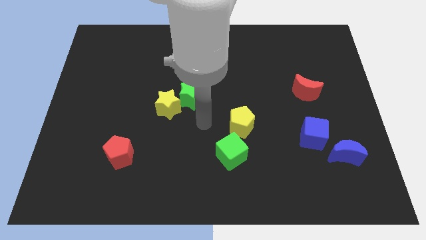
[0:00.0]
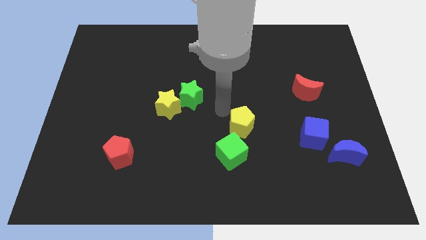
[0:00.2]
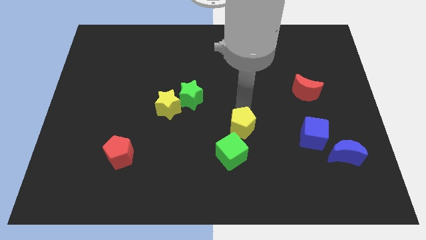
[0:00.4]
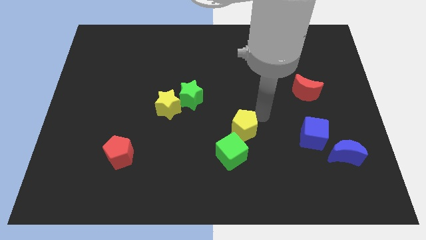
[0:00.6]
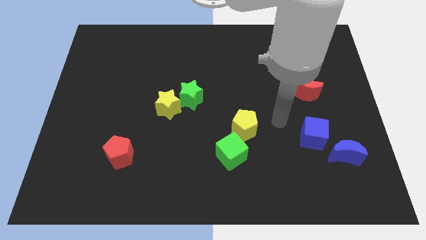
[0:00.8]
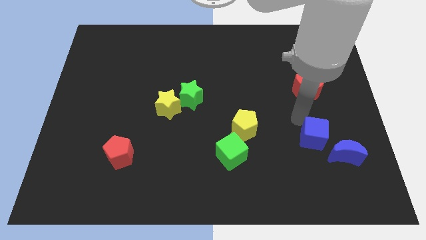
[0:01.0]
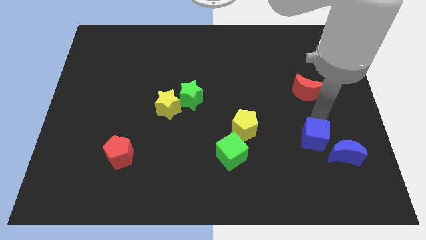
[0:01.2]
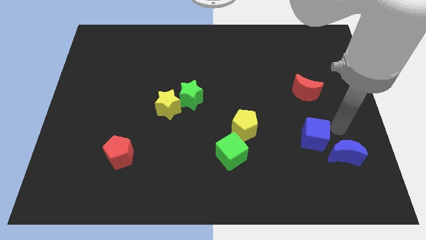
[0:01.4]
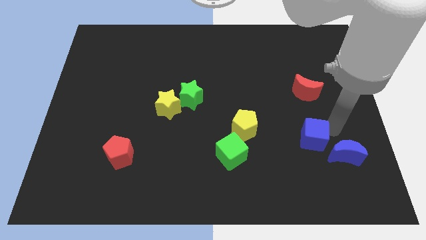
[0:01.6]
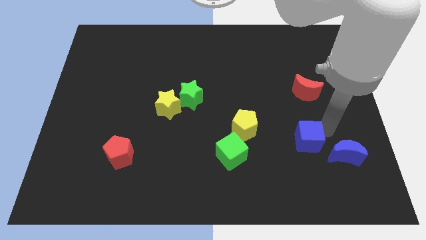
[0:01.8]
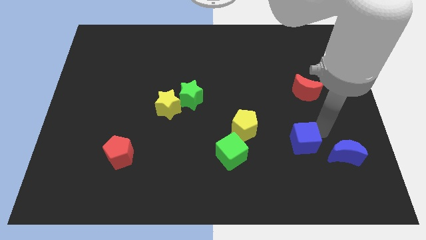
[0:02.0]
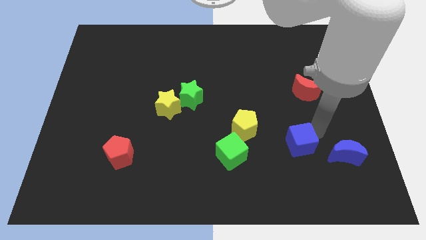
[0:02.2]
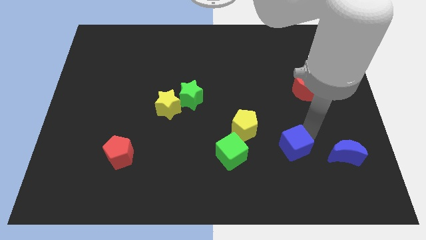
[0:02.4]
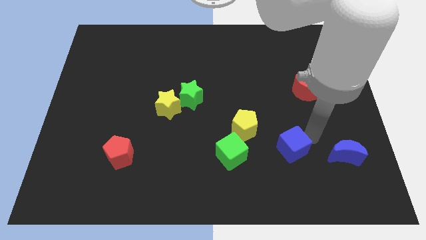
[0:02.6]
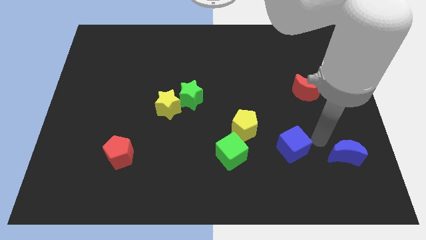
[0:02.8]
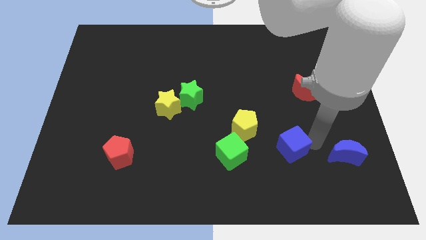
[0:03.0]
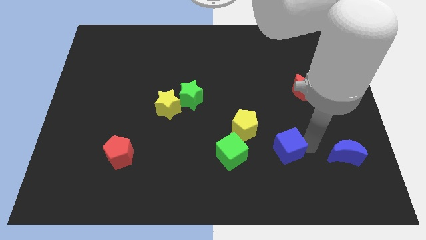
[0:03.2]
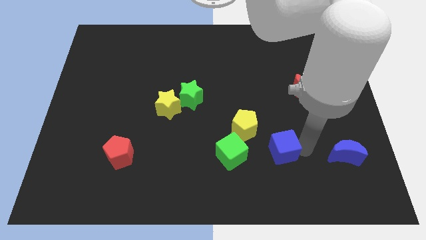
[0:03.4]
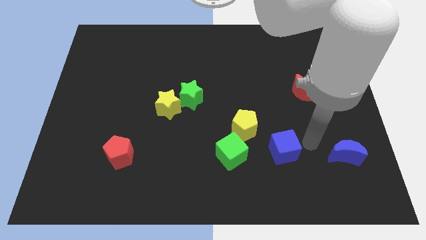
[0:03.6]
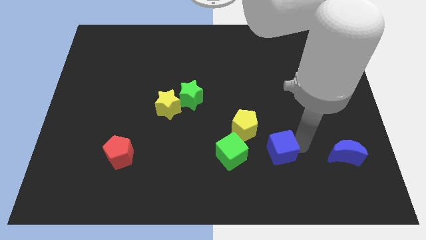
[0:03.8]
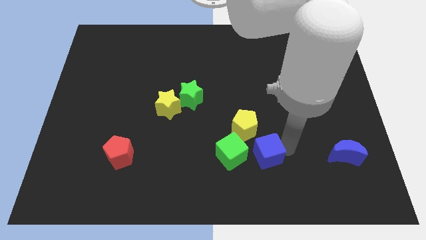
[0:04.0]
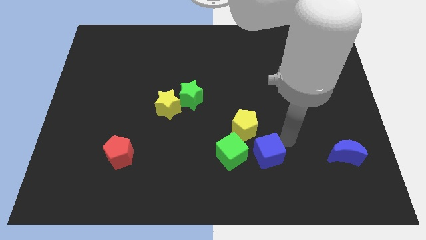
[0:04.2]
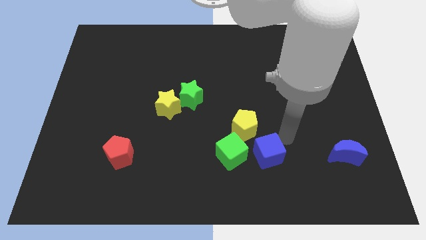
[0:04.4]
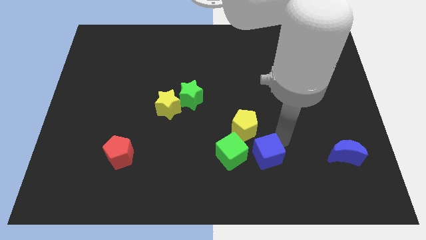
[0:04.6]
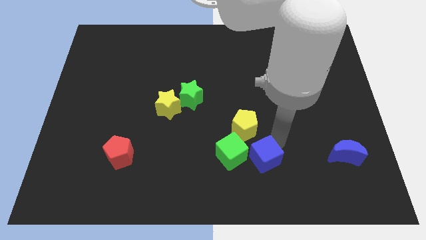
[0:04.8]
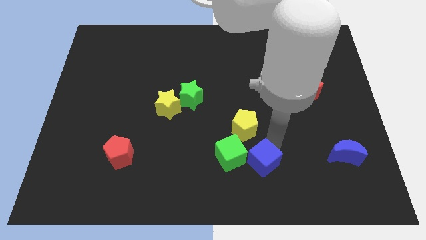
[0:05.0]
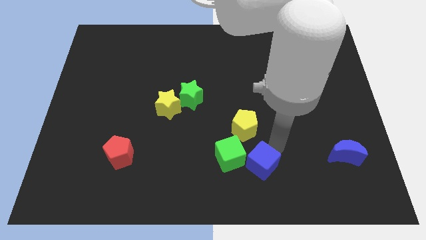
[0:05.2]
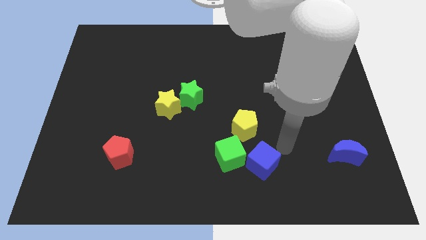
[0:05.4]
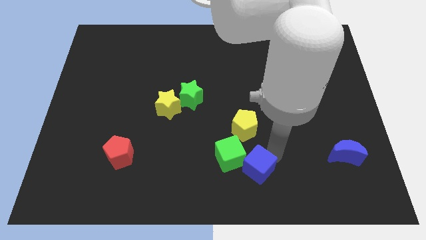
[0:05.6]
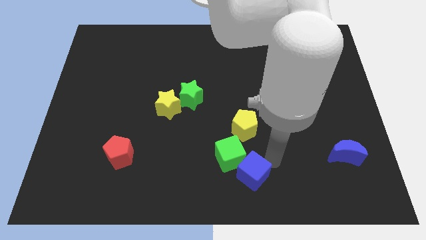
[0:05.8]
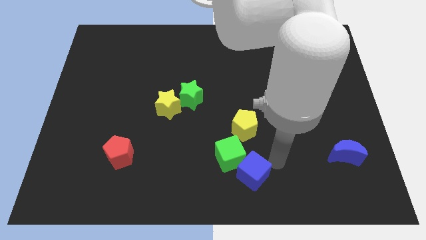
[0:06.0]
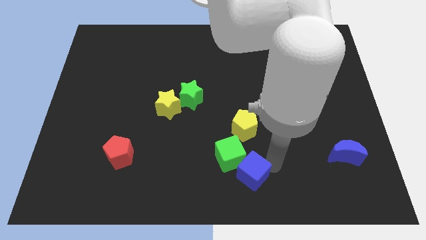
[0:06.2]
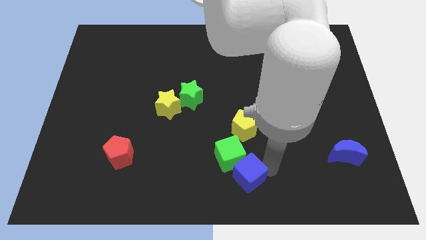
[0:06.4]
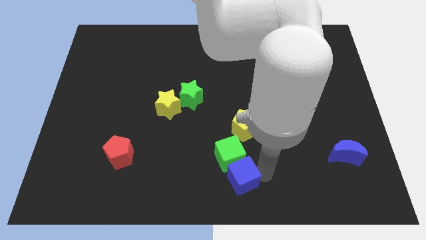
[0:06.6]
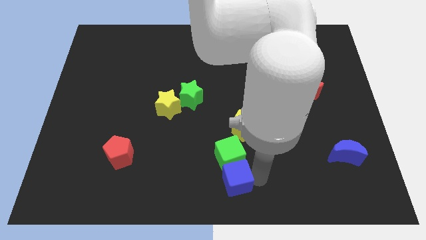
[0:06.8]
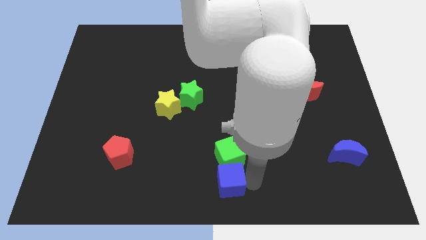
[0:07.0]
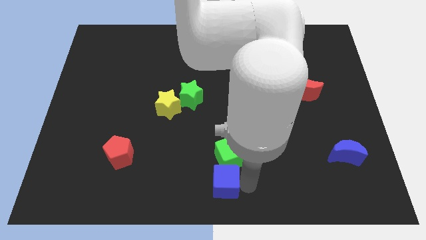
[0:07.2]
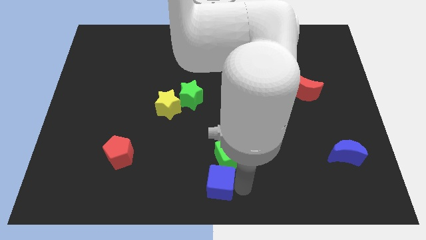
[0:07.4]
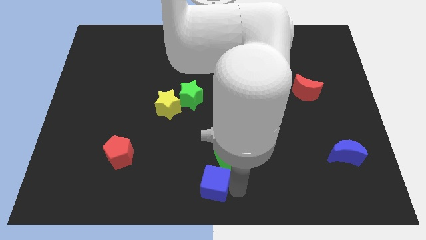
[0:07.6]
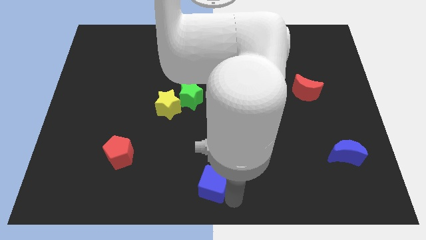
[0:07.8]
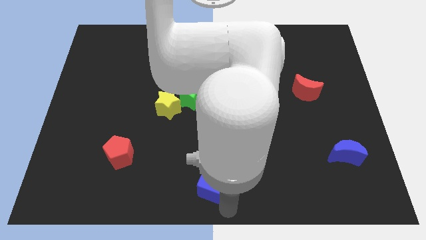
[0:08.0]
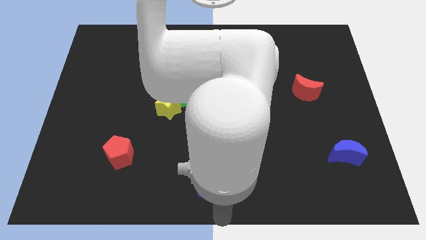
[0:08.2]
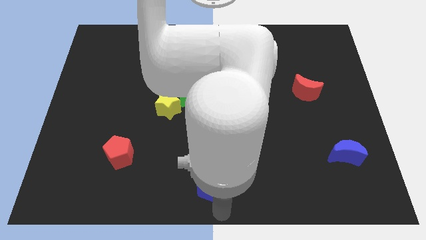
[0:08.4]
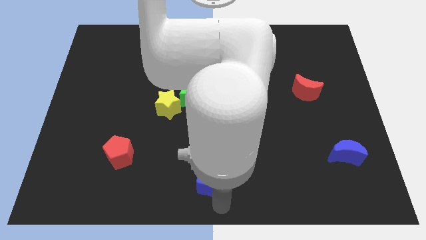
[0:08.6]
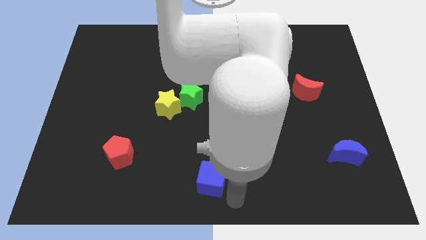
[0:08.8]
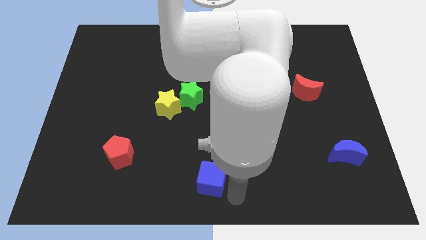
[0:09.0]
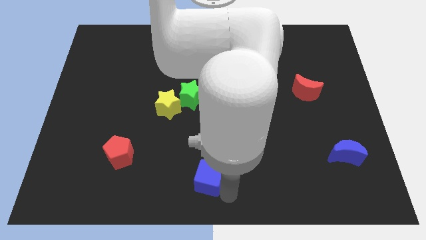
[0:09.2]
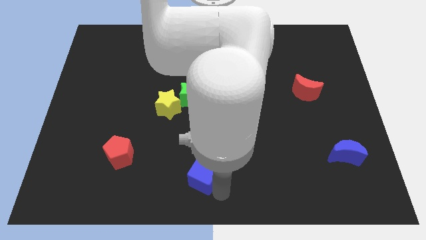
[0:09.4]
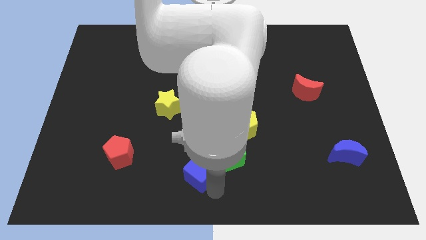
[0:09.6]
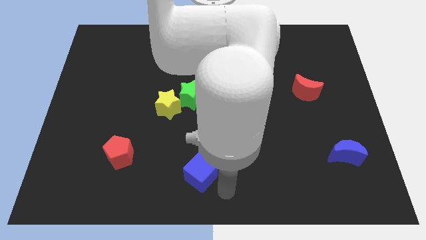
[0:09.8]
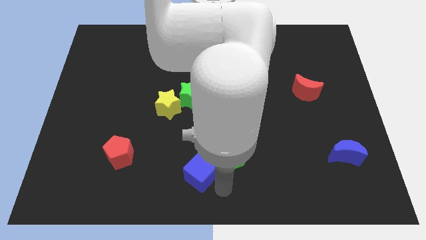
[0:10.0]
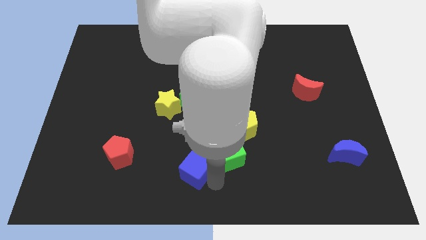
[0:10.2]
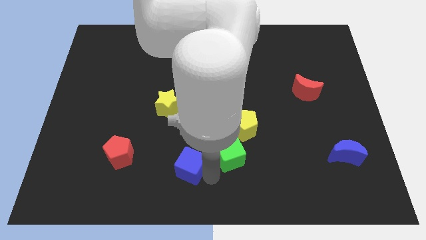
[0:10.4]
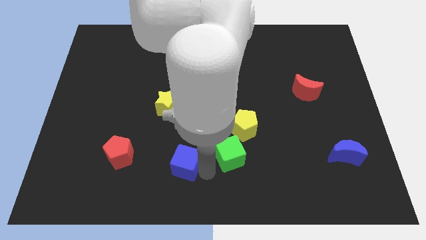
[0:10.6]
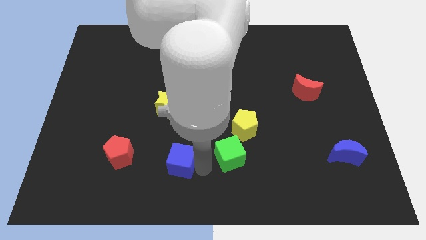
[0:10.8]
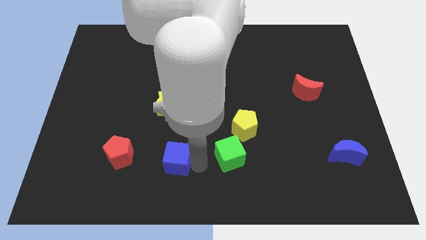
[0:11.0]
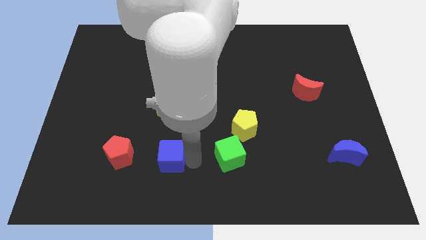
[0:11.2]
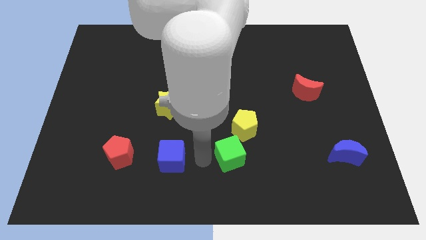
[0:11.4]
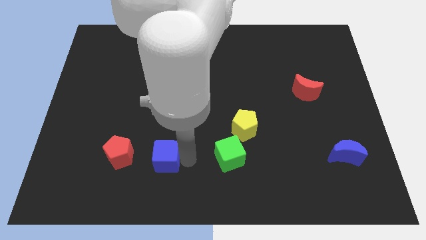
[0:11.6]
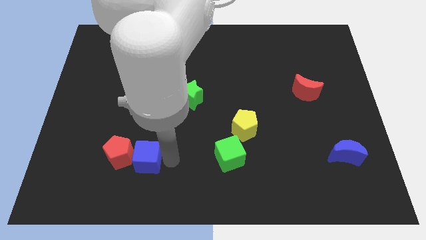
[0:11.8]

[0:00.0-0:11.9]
move the blue cube close to the red pentagon

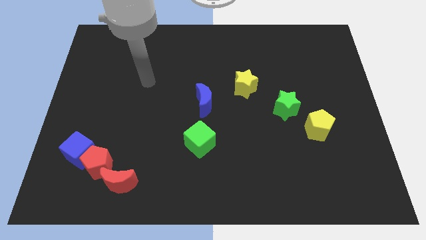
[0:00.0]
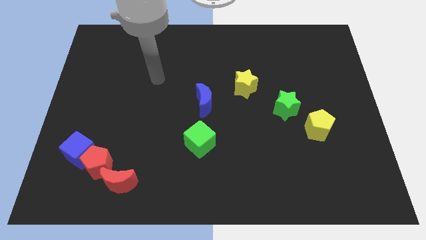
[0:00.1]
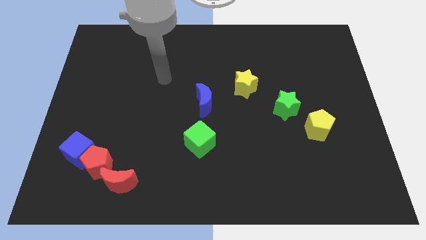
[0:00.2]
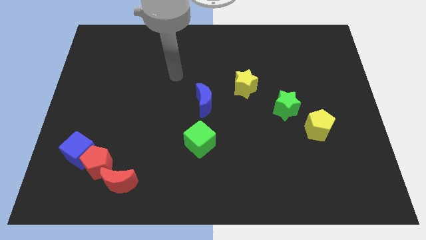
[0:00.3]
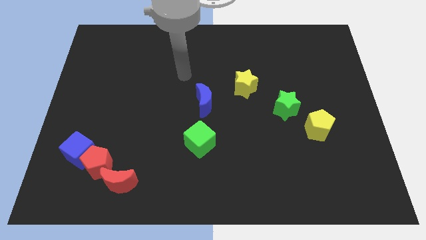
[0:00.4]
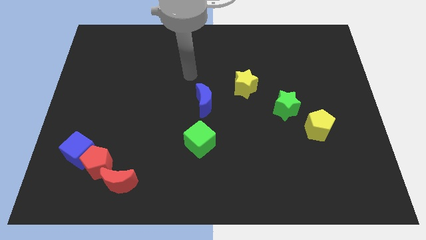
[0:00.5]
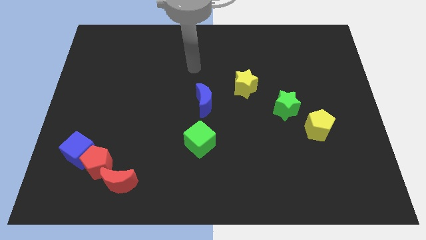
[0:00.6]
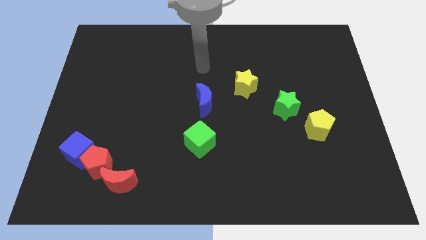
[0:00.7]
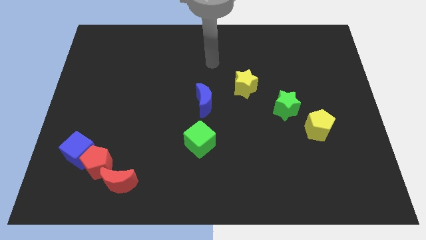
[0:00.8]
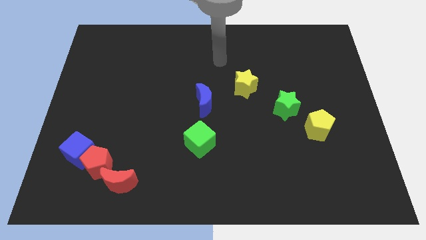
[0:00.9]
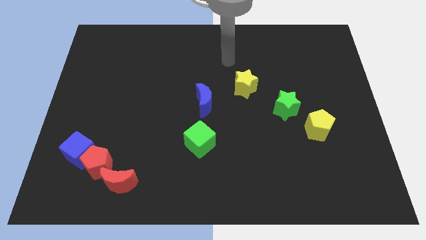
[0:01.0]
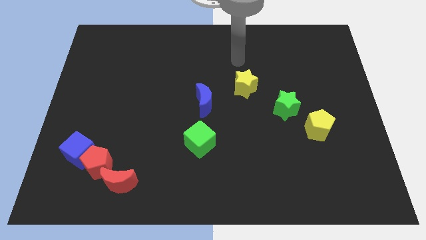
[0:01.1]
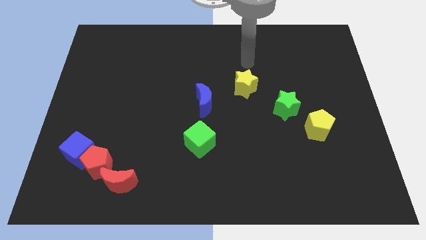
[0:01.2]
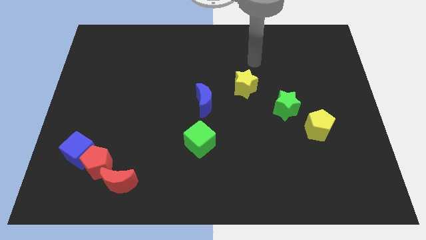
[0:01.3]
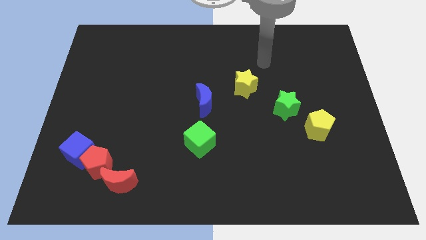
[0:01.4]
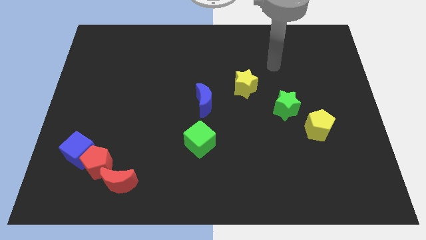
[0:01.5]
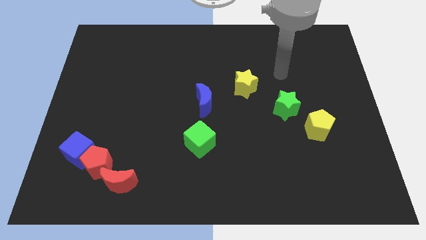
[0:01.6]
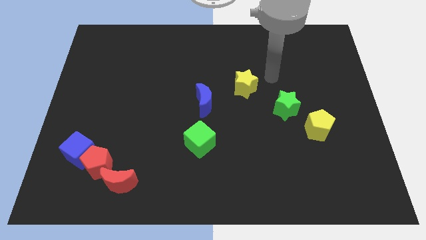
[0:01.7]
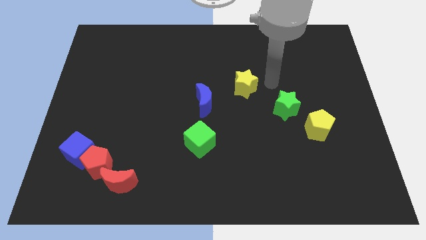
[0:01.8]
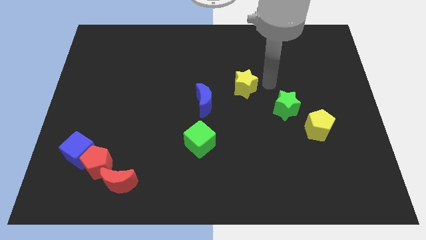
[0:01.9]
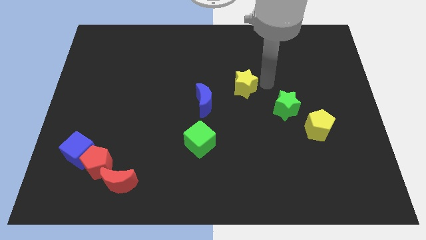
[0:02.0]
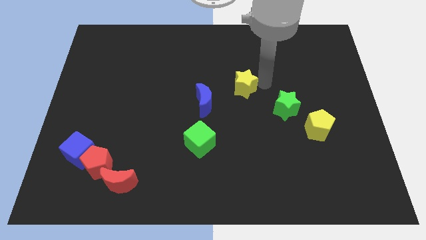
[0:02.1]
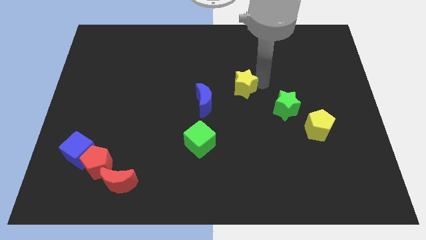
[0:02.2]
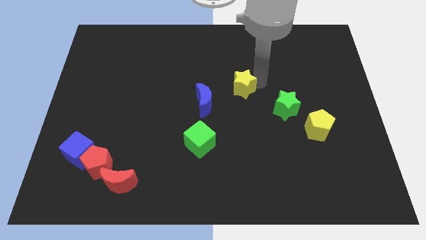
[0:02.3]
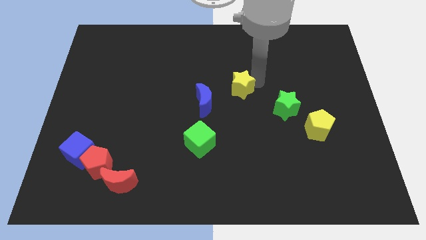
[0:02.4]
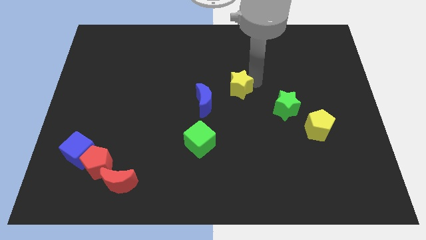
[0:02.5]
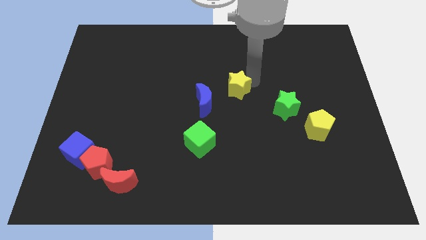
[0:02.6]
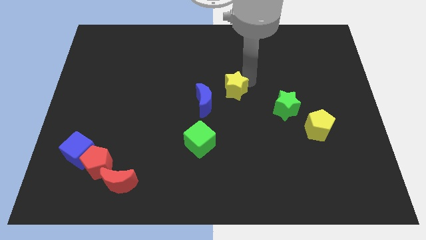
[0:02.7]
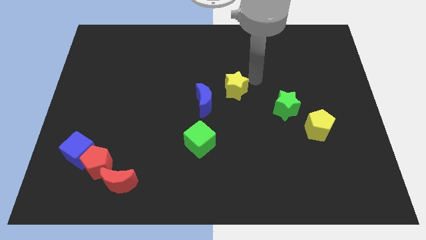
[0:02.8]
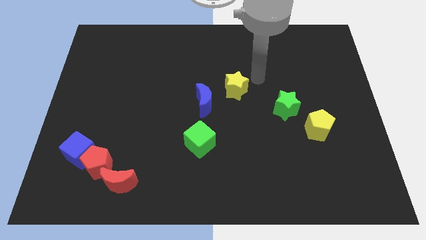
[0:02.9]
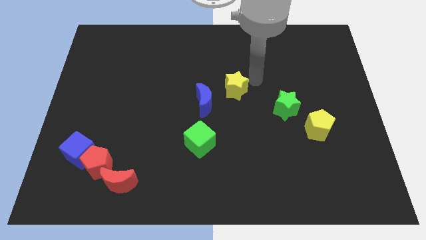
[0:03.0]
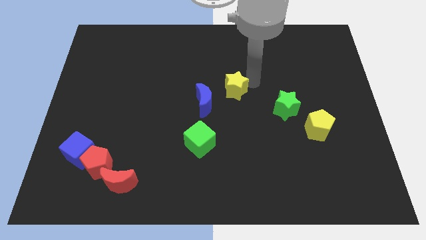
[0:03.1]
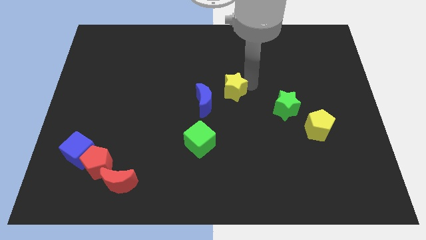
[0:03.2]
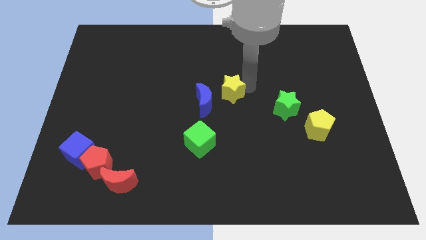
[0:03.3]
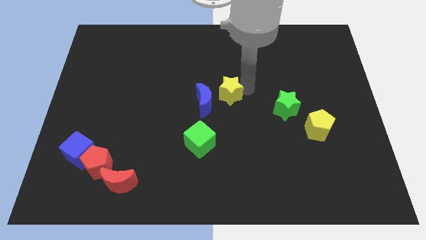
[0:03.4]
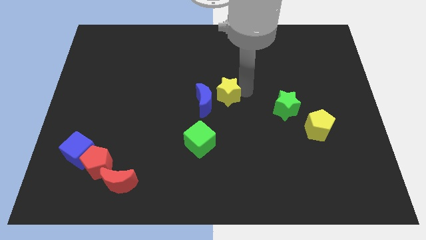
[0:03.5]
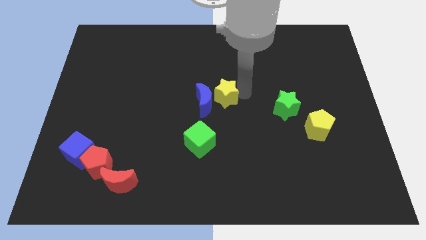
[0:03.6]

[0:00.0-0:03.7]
push the yellow star close to the blue moon
